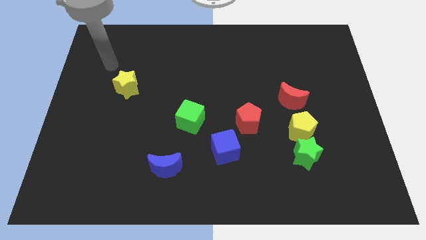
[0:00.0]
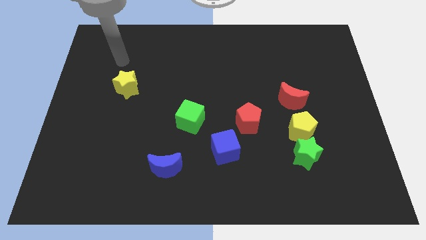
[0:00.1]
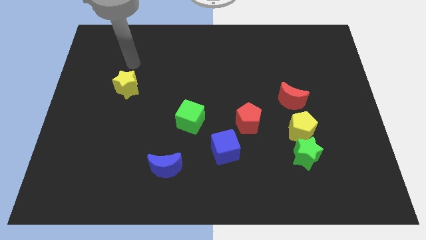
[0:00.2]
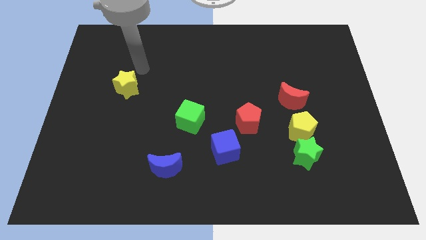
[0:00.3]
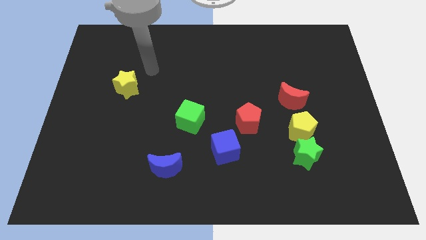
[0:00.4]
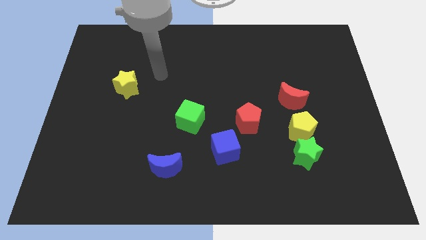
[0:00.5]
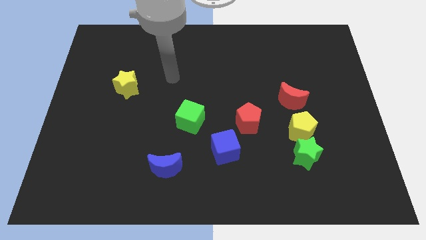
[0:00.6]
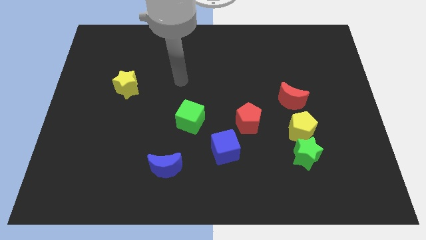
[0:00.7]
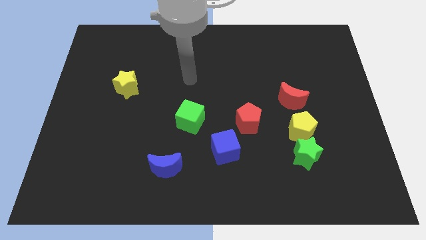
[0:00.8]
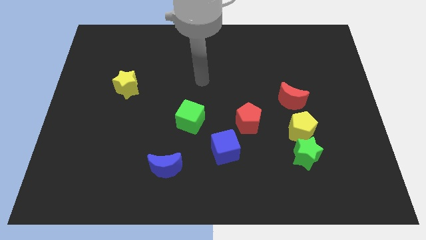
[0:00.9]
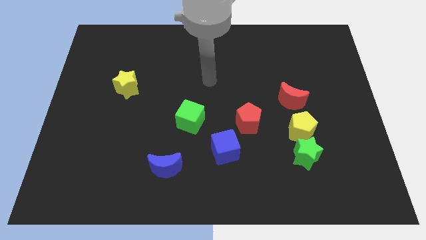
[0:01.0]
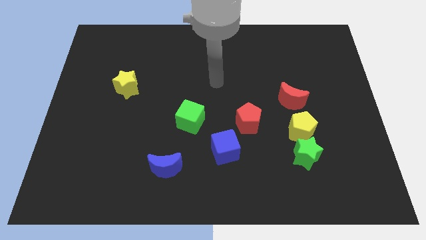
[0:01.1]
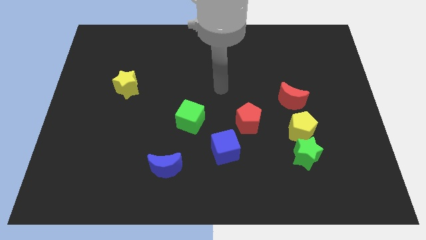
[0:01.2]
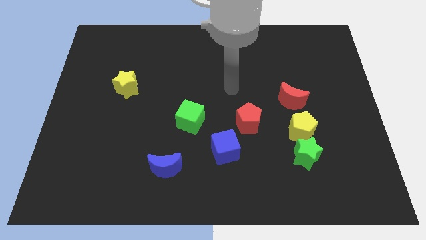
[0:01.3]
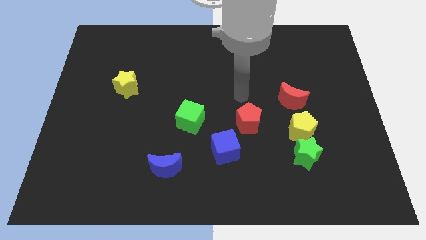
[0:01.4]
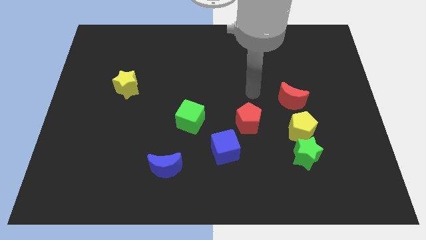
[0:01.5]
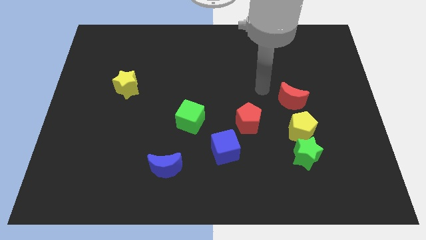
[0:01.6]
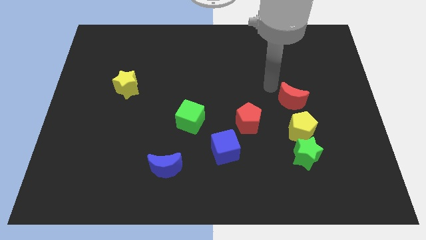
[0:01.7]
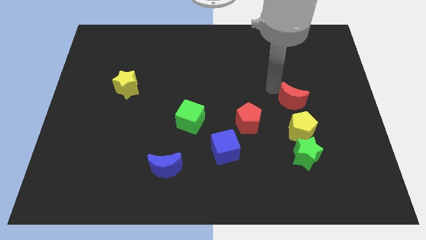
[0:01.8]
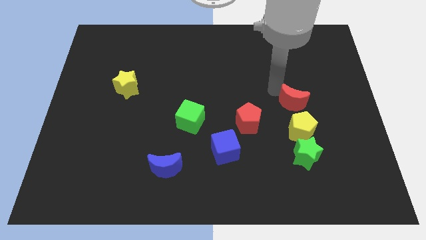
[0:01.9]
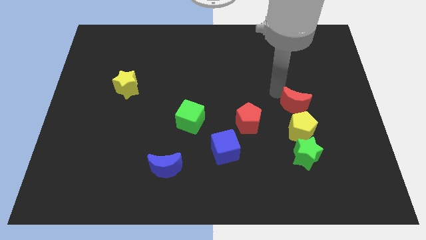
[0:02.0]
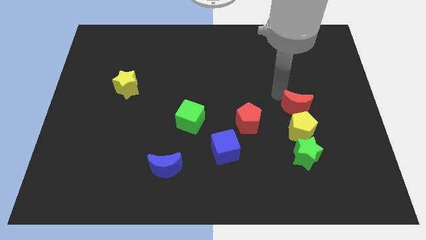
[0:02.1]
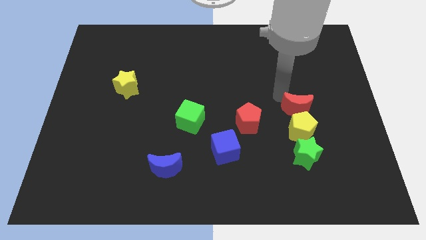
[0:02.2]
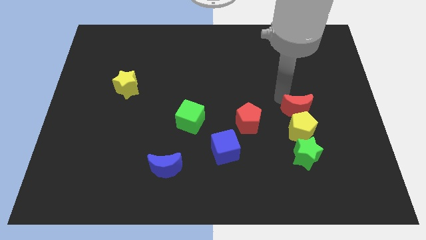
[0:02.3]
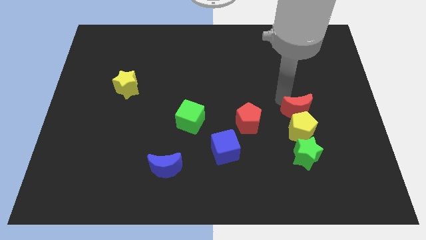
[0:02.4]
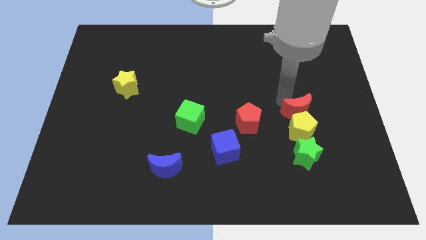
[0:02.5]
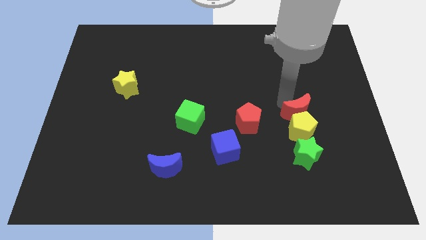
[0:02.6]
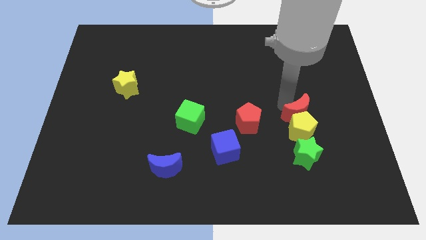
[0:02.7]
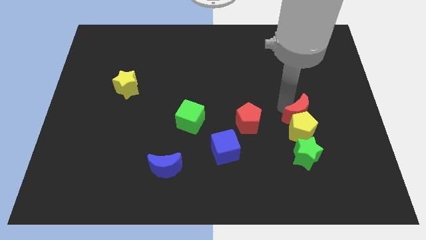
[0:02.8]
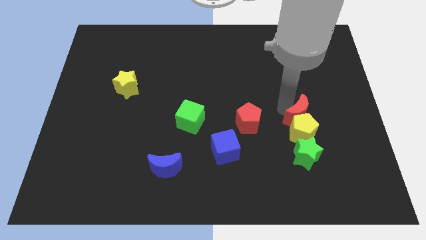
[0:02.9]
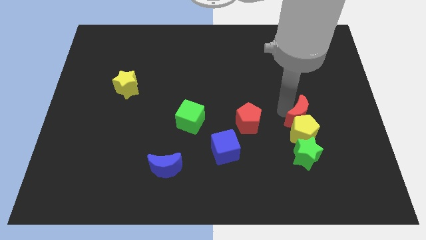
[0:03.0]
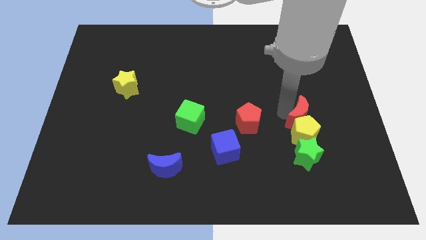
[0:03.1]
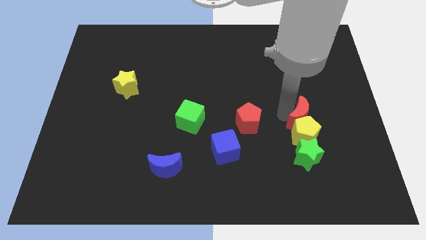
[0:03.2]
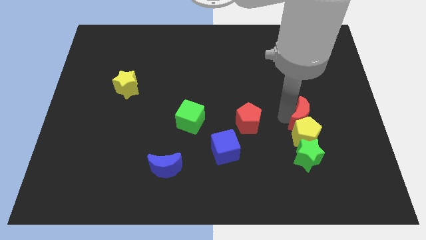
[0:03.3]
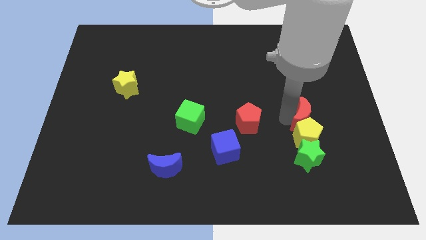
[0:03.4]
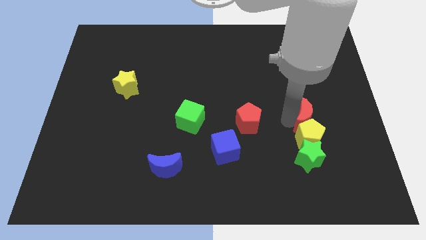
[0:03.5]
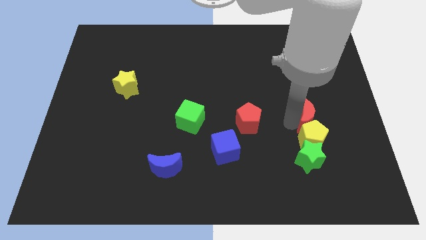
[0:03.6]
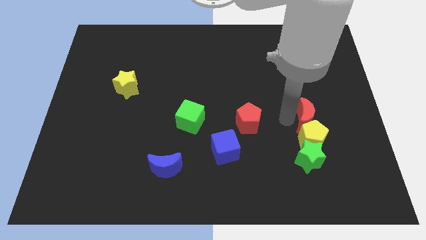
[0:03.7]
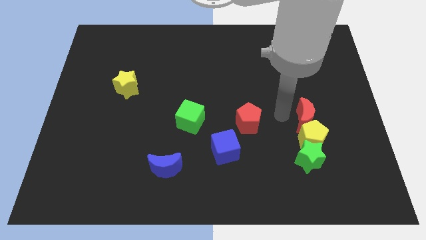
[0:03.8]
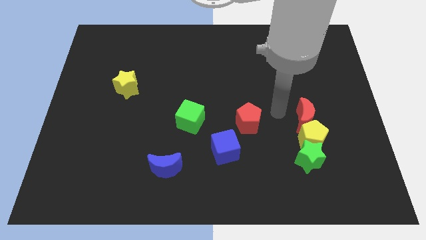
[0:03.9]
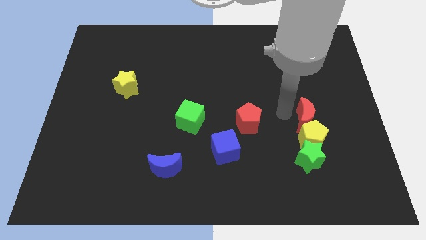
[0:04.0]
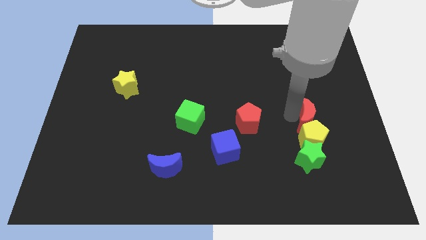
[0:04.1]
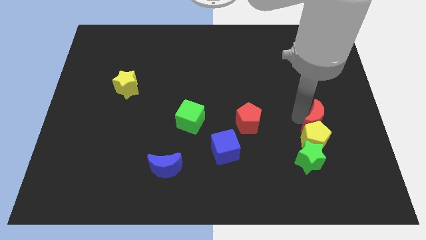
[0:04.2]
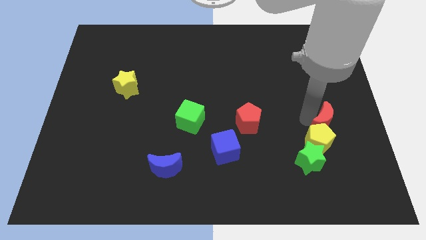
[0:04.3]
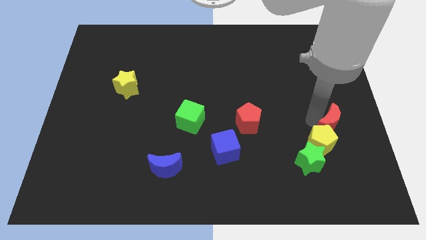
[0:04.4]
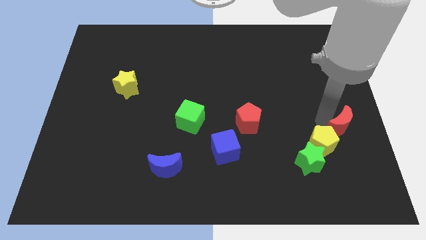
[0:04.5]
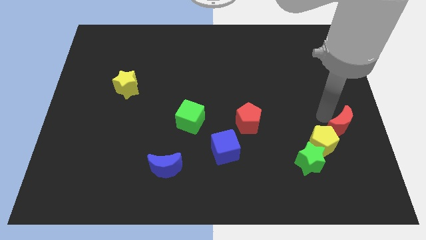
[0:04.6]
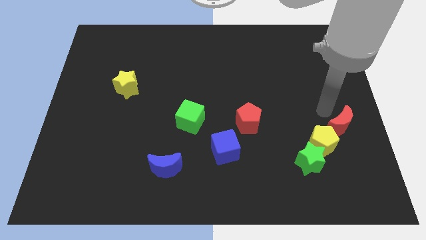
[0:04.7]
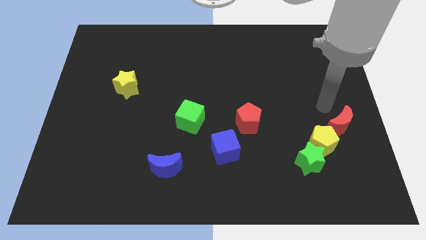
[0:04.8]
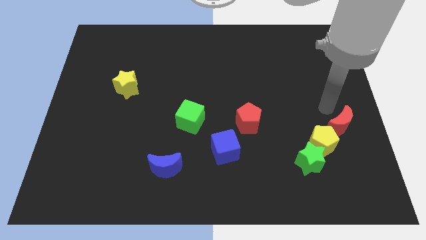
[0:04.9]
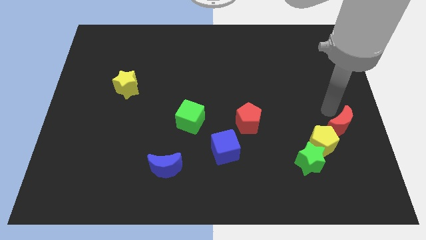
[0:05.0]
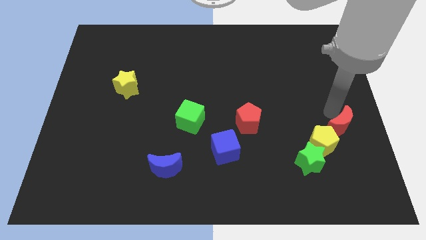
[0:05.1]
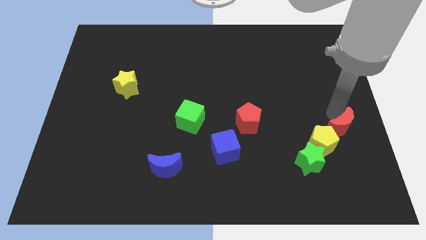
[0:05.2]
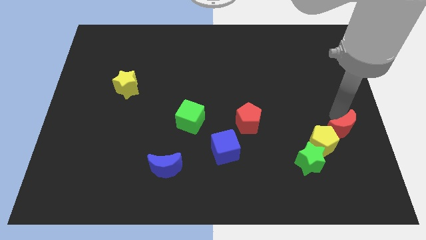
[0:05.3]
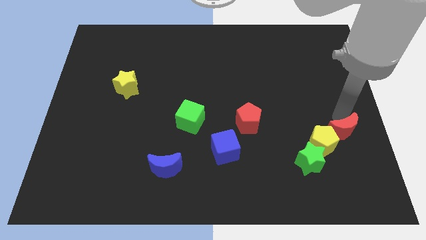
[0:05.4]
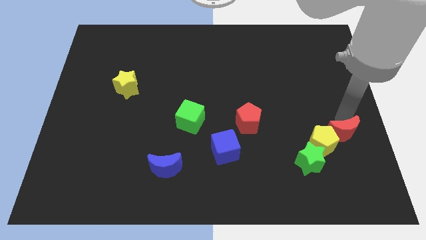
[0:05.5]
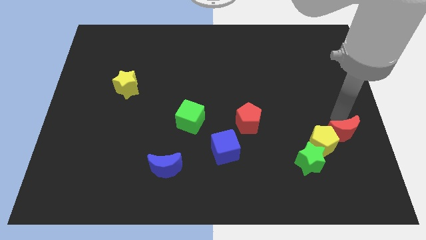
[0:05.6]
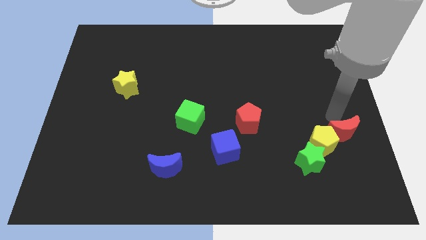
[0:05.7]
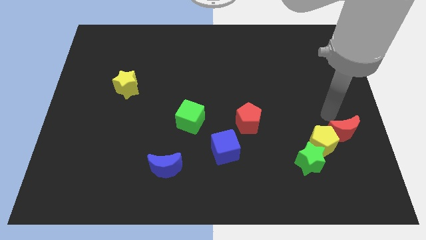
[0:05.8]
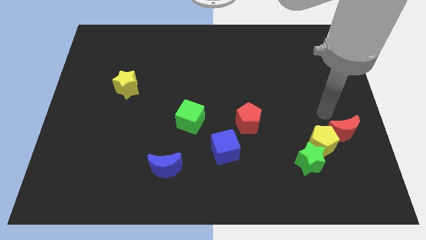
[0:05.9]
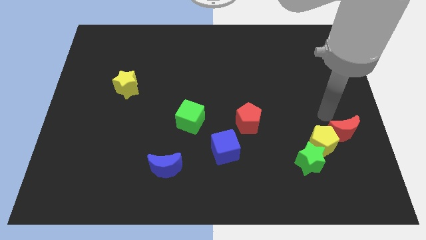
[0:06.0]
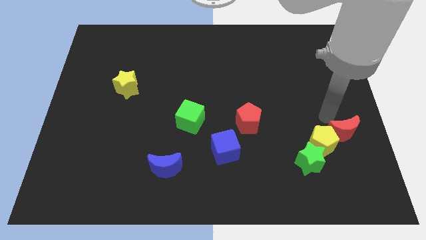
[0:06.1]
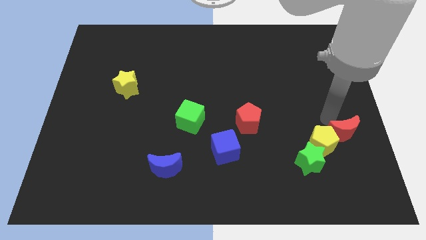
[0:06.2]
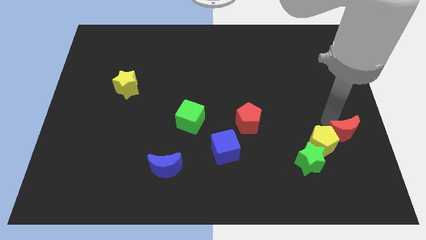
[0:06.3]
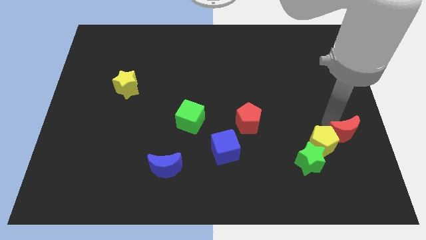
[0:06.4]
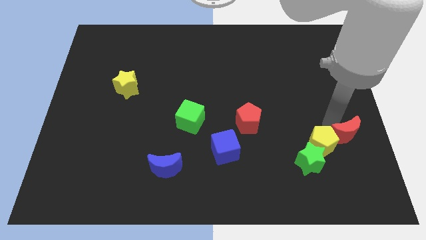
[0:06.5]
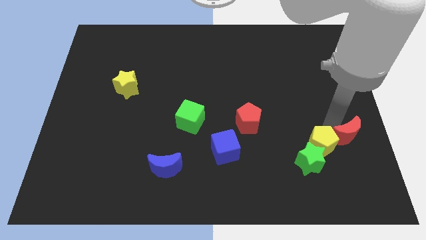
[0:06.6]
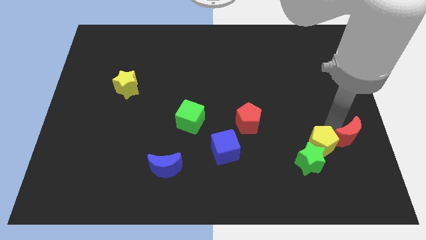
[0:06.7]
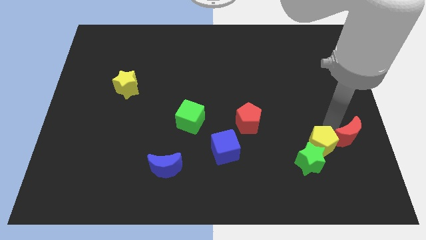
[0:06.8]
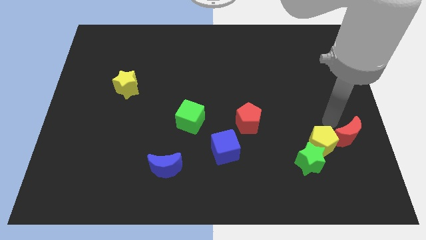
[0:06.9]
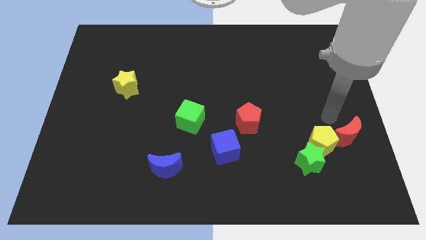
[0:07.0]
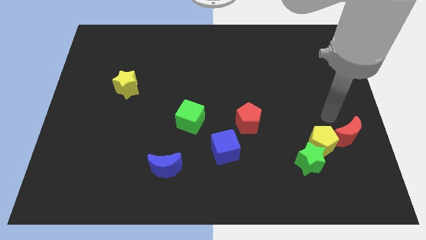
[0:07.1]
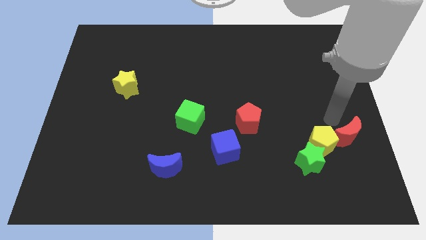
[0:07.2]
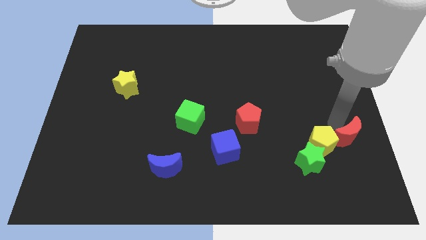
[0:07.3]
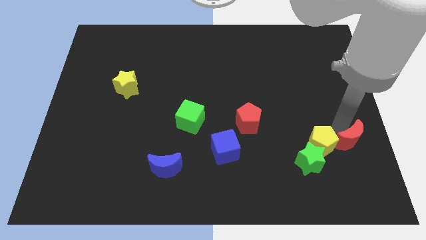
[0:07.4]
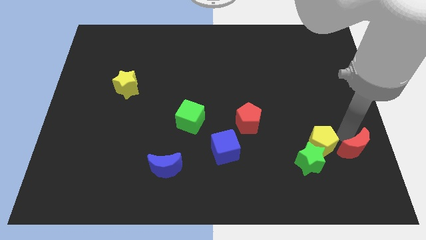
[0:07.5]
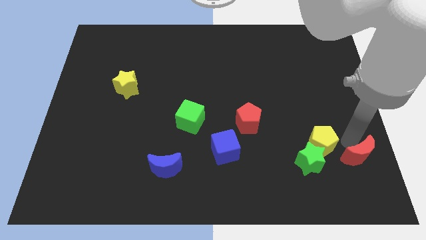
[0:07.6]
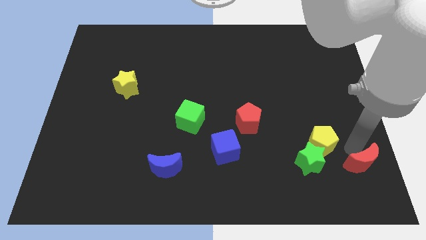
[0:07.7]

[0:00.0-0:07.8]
push the red moon to the bottom right corner
